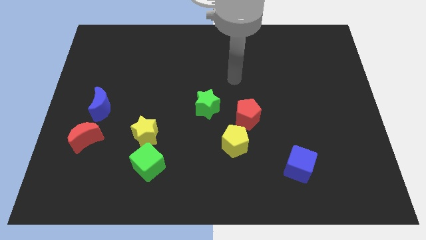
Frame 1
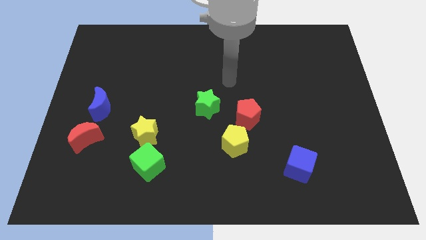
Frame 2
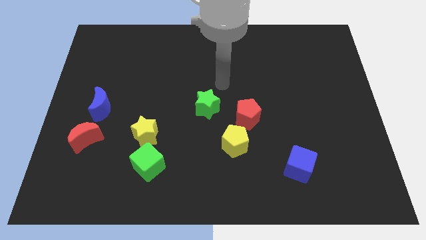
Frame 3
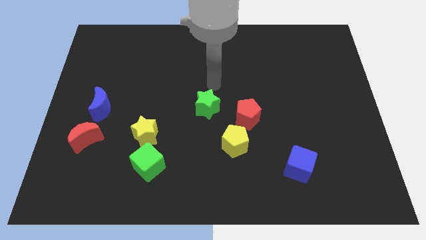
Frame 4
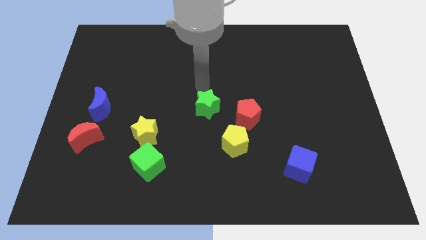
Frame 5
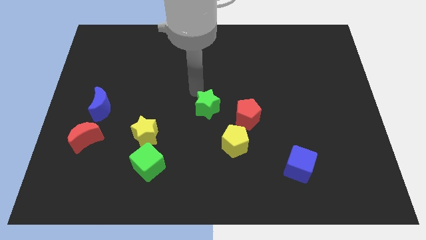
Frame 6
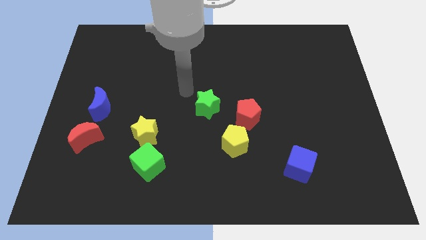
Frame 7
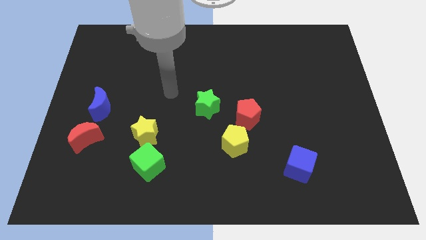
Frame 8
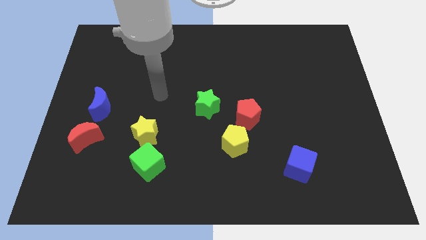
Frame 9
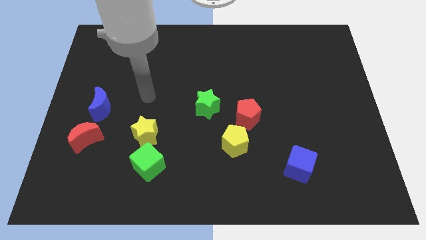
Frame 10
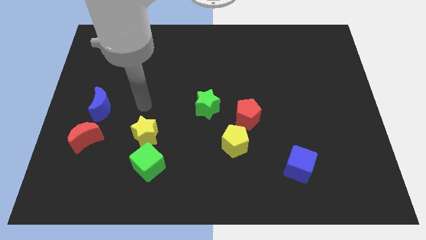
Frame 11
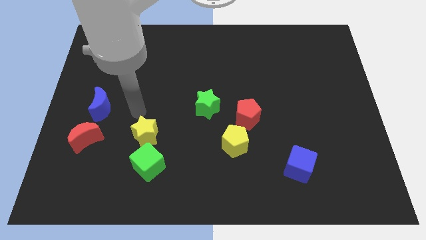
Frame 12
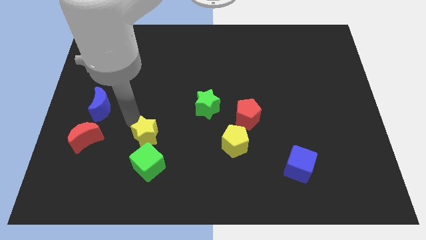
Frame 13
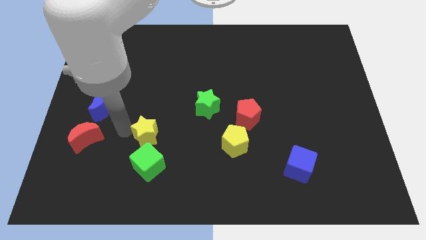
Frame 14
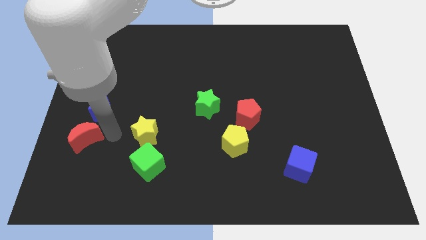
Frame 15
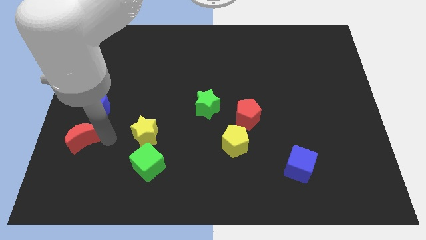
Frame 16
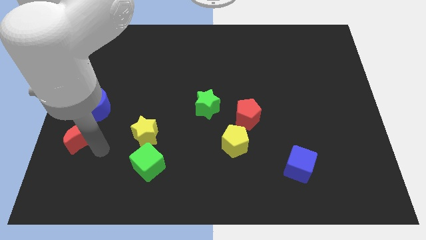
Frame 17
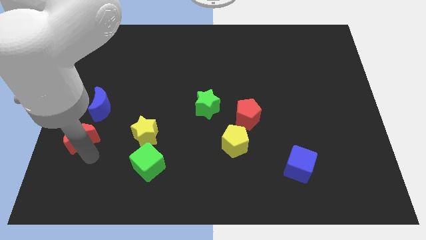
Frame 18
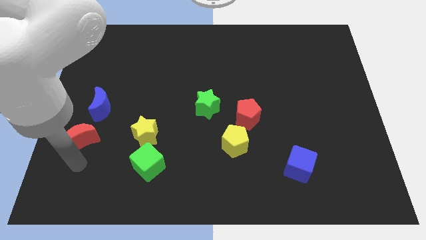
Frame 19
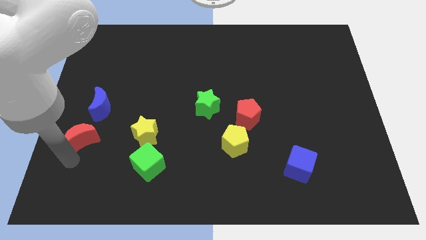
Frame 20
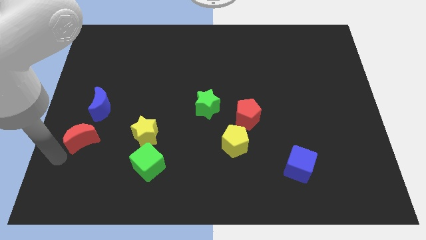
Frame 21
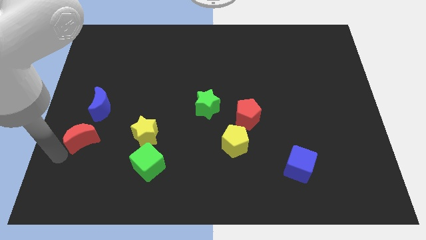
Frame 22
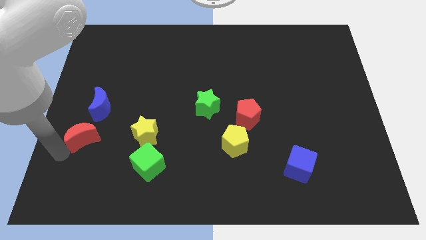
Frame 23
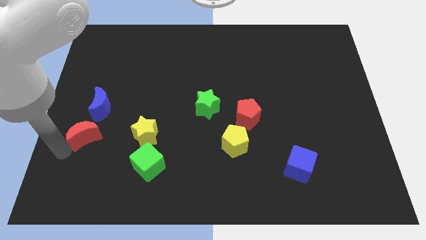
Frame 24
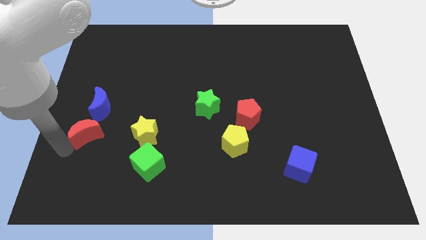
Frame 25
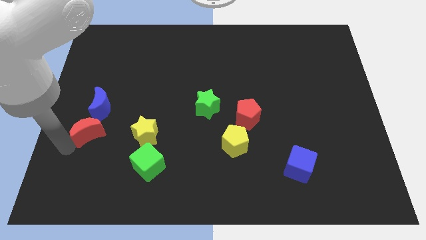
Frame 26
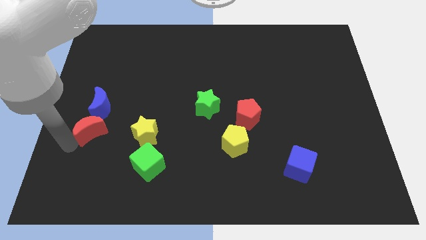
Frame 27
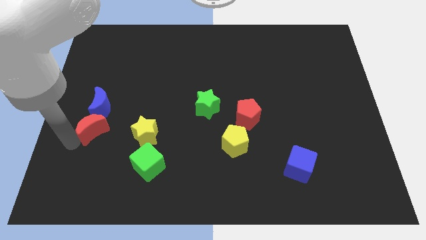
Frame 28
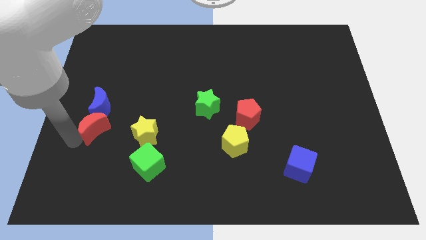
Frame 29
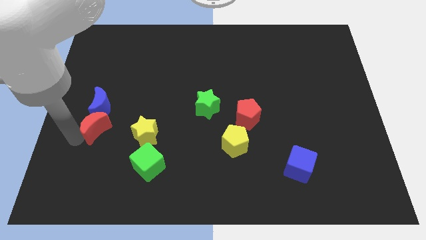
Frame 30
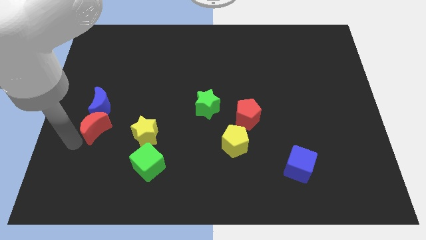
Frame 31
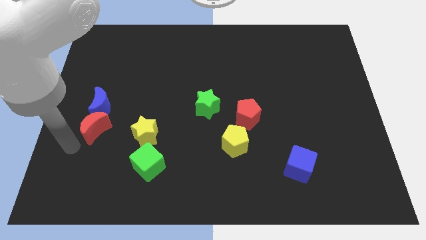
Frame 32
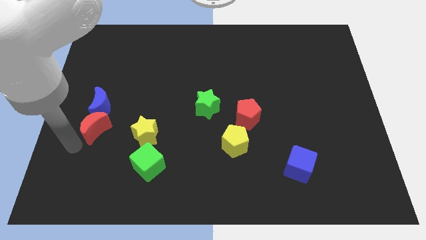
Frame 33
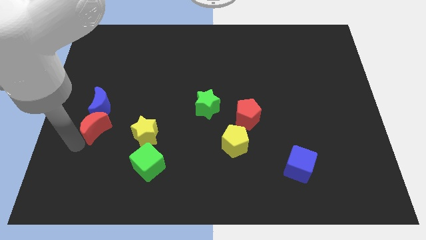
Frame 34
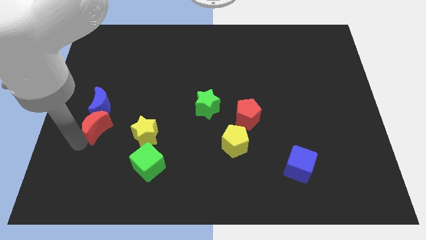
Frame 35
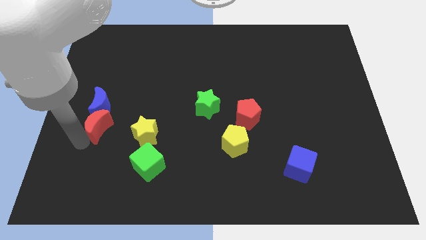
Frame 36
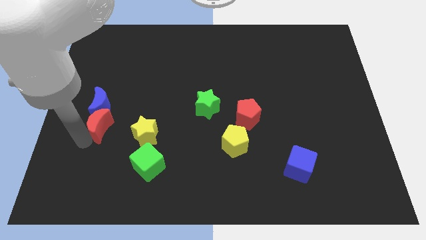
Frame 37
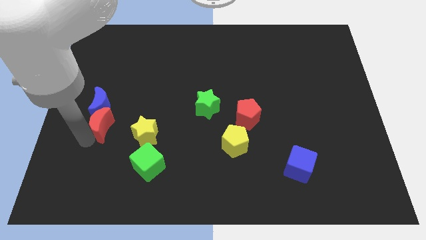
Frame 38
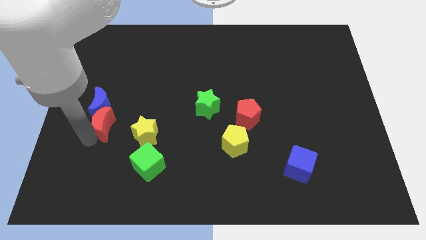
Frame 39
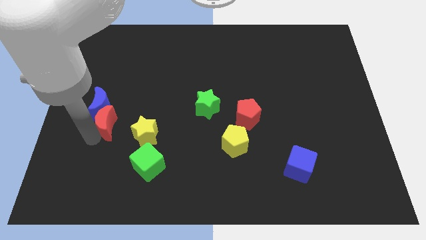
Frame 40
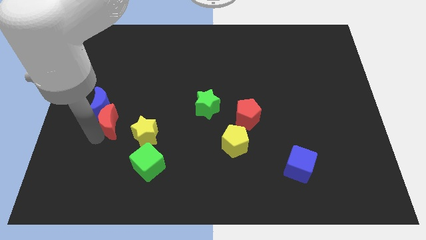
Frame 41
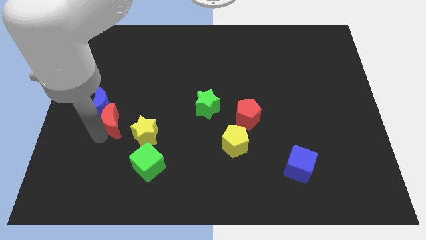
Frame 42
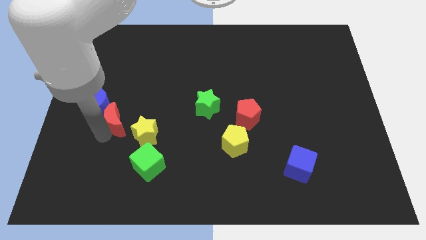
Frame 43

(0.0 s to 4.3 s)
push the red moon upwards and right diagonally a little bit

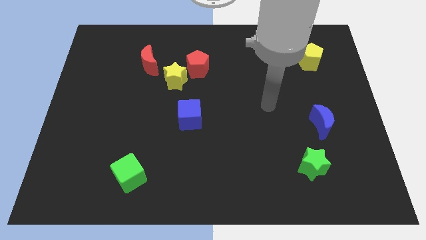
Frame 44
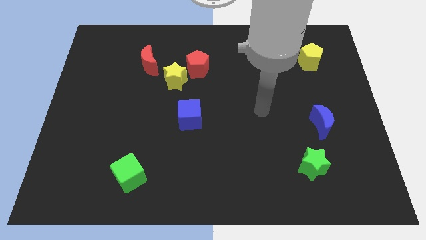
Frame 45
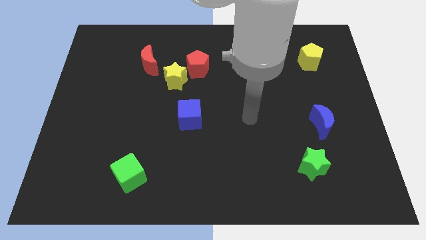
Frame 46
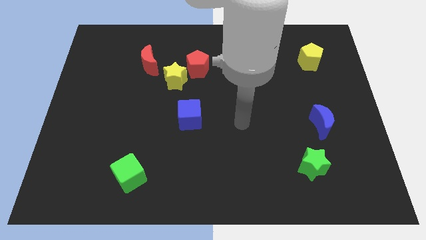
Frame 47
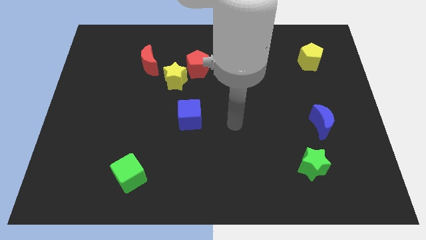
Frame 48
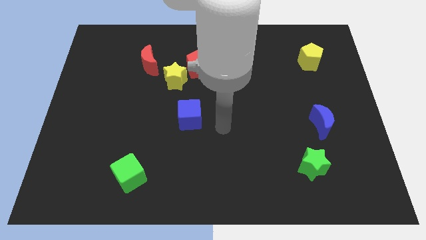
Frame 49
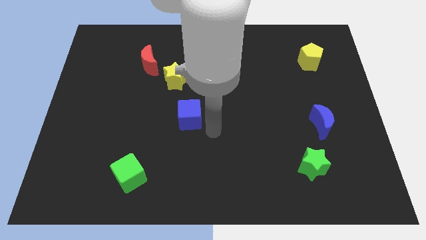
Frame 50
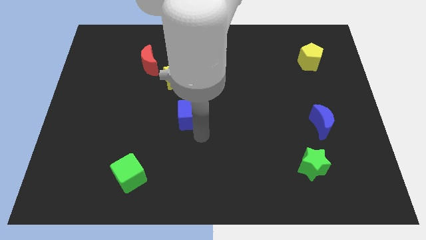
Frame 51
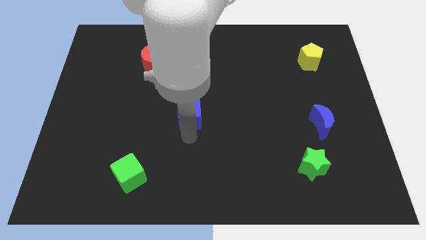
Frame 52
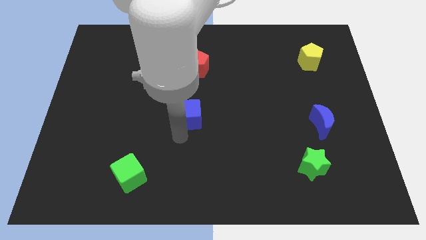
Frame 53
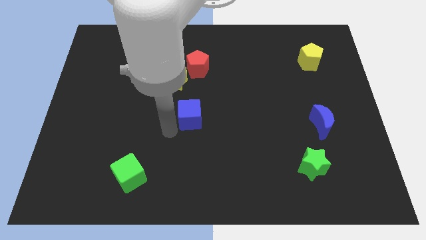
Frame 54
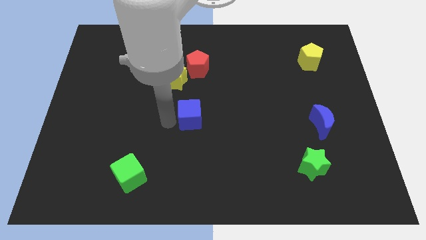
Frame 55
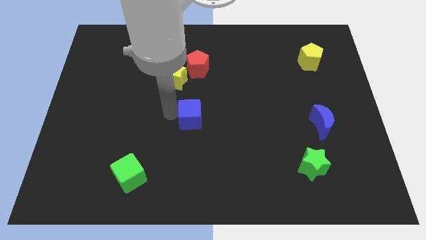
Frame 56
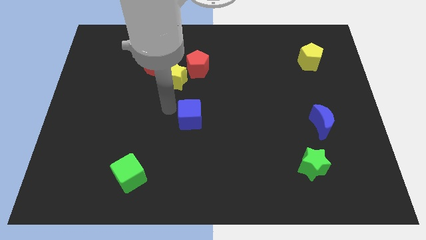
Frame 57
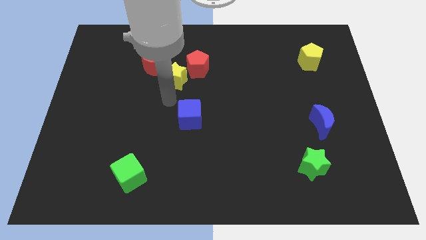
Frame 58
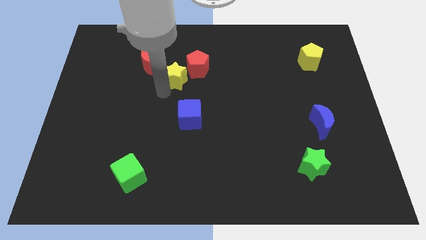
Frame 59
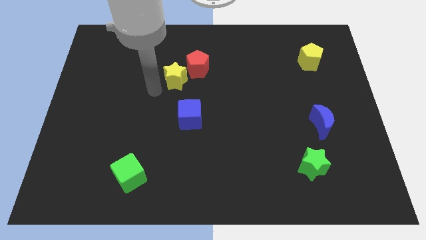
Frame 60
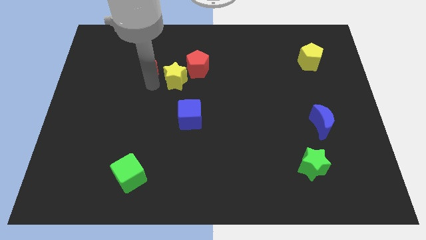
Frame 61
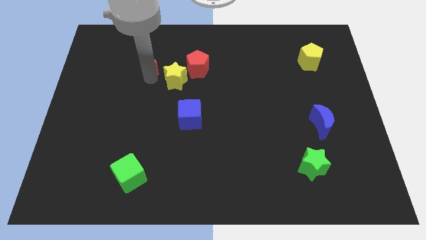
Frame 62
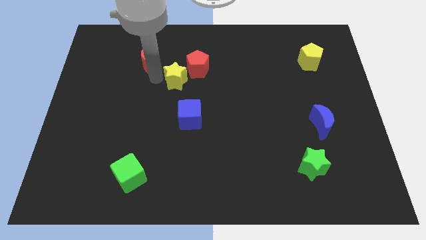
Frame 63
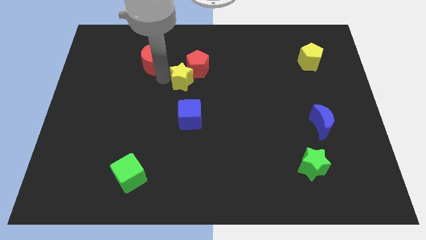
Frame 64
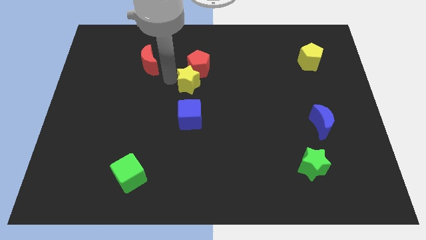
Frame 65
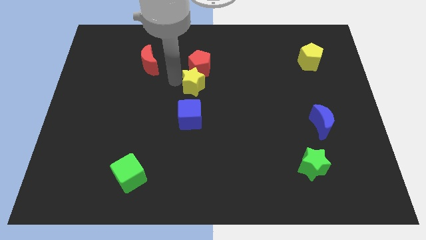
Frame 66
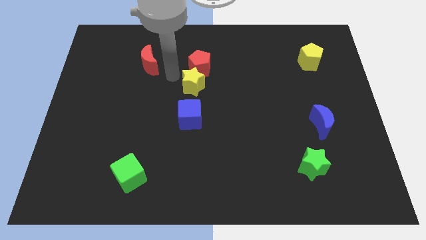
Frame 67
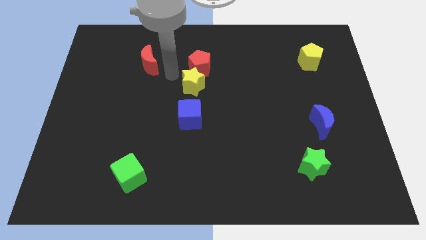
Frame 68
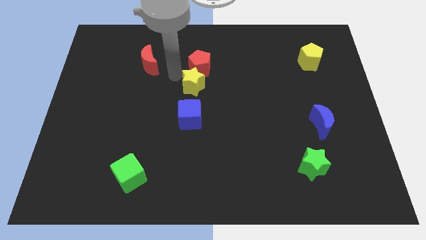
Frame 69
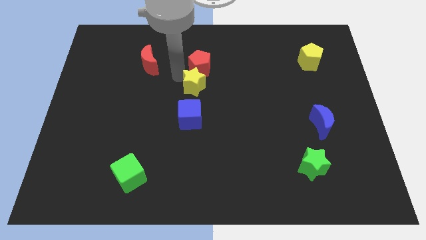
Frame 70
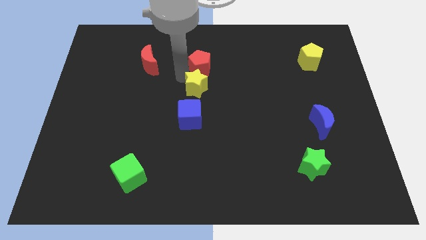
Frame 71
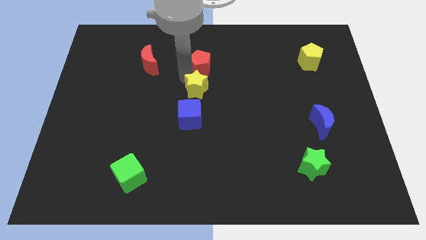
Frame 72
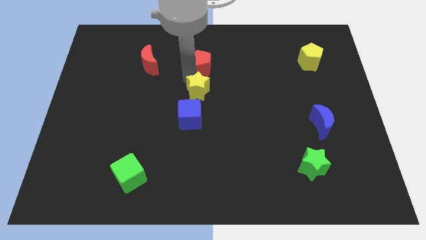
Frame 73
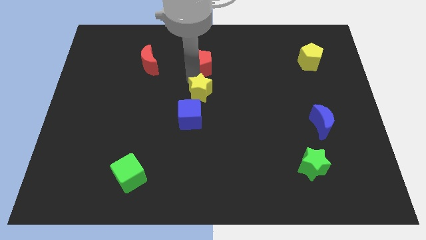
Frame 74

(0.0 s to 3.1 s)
push the yellow star a little down and right
